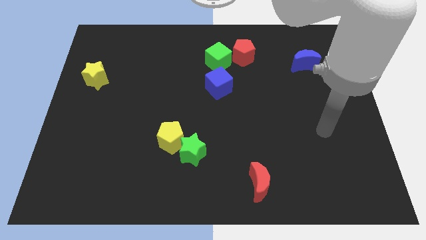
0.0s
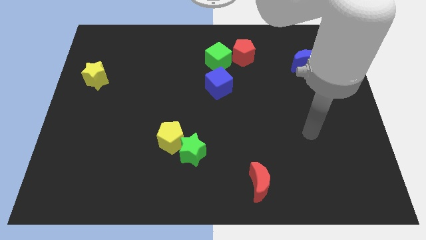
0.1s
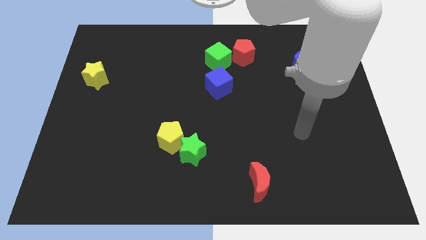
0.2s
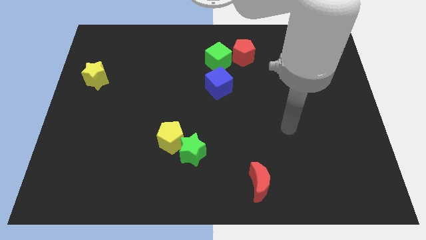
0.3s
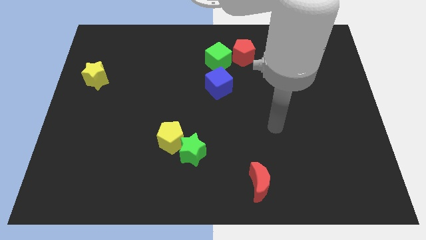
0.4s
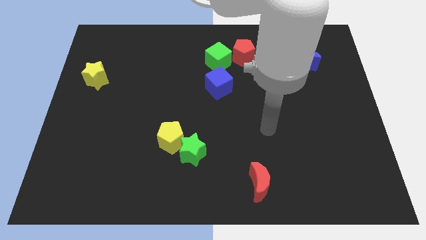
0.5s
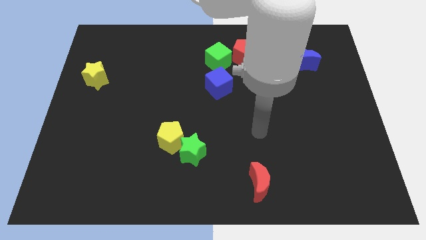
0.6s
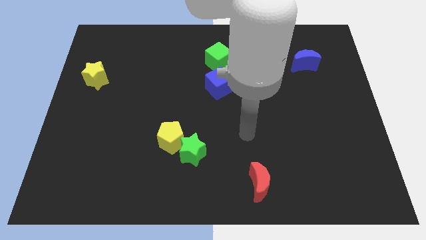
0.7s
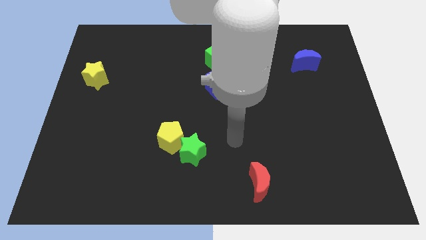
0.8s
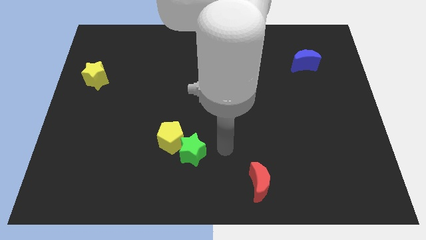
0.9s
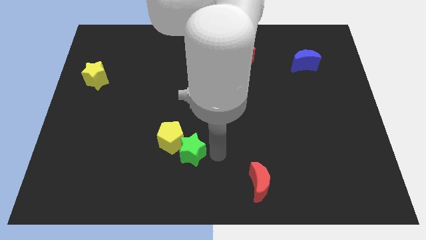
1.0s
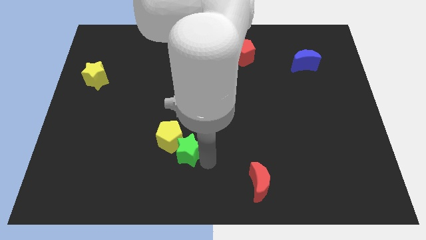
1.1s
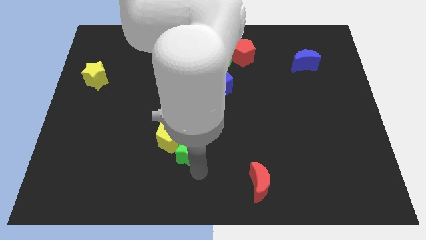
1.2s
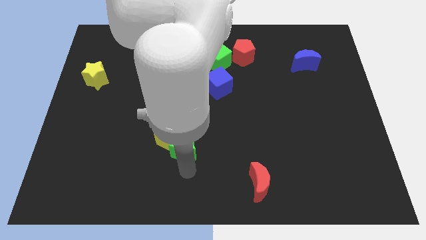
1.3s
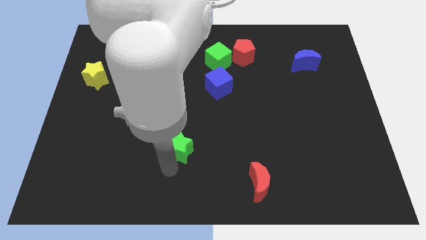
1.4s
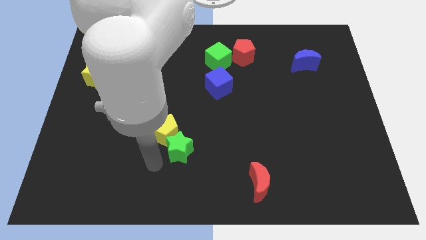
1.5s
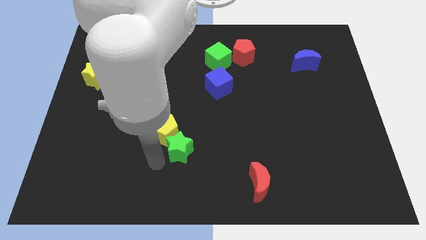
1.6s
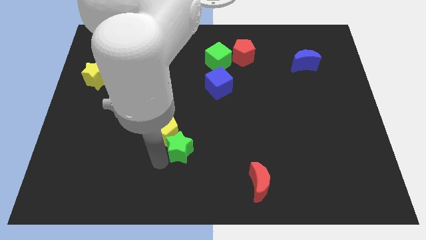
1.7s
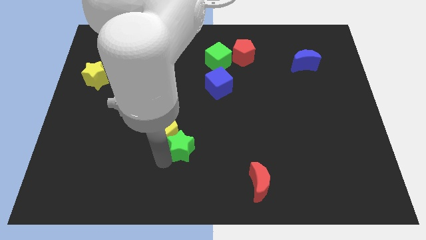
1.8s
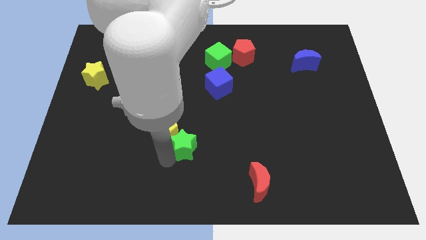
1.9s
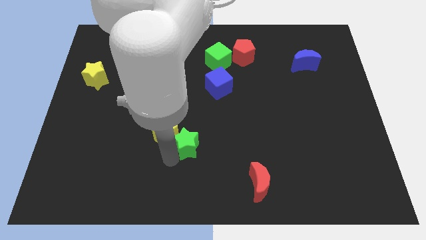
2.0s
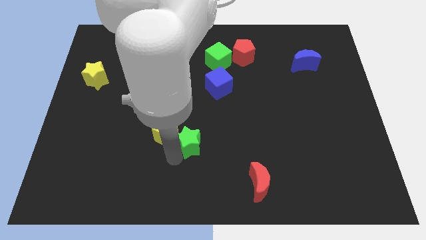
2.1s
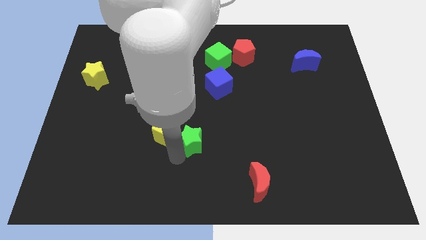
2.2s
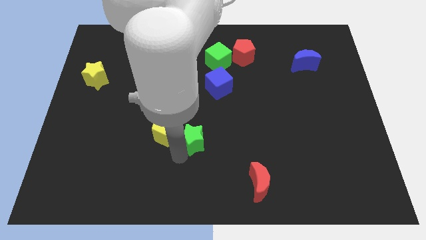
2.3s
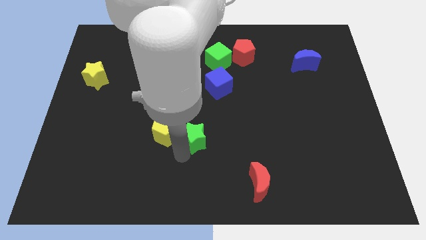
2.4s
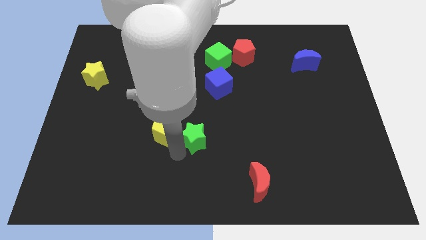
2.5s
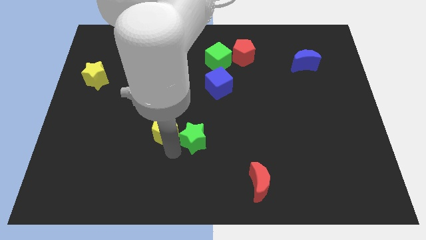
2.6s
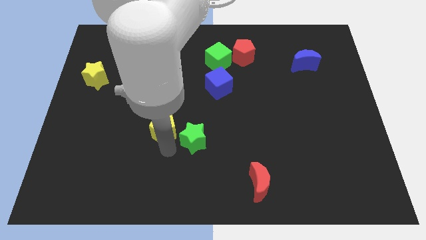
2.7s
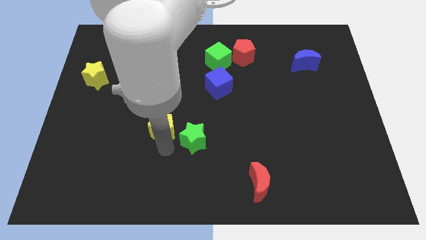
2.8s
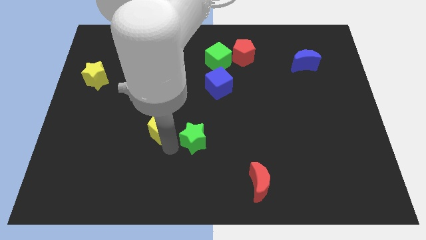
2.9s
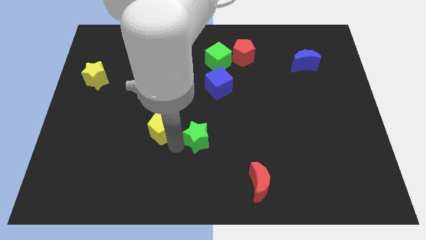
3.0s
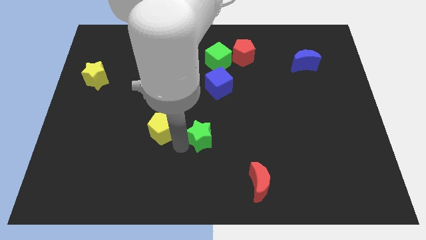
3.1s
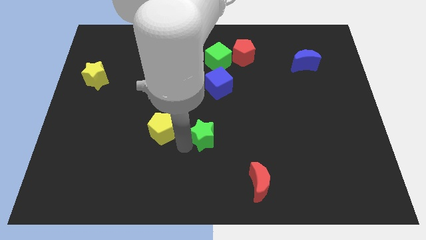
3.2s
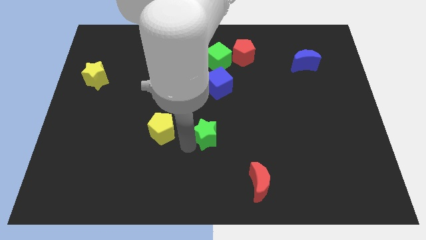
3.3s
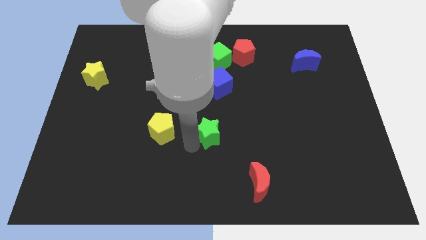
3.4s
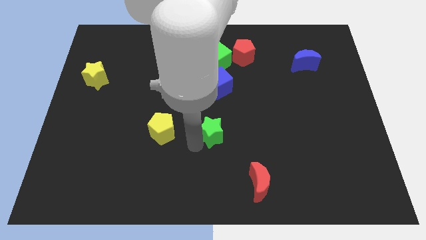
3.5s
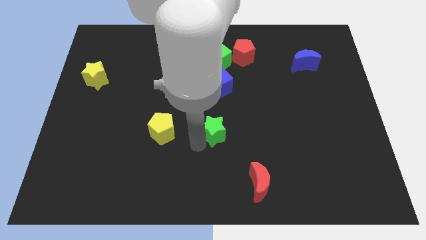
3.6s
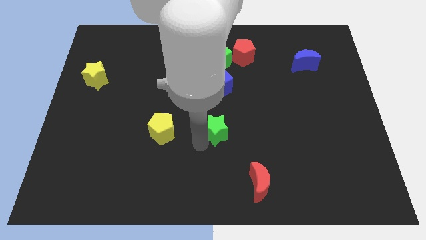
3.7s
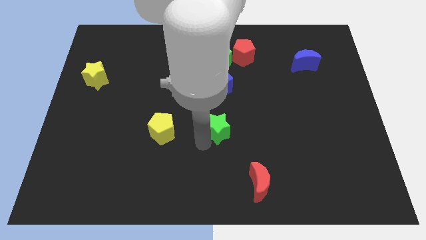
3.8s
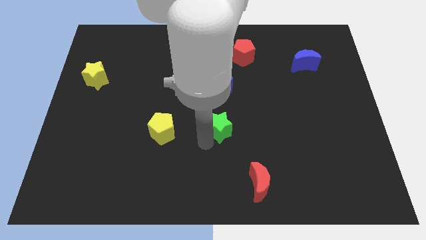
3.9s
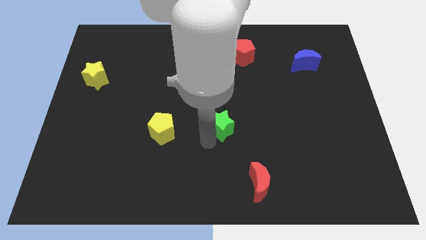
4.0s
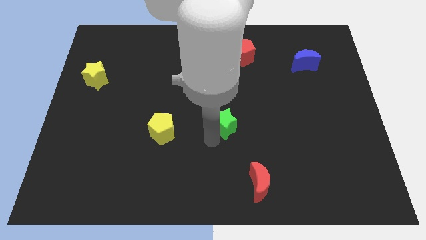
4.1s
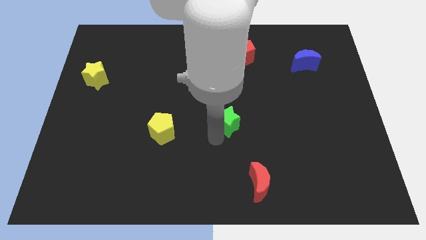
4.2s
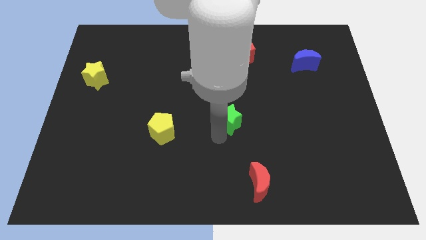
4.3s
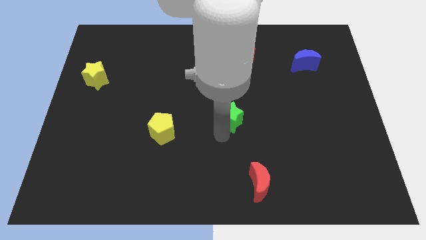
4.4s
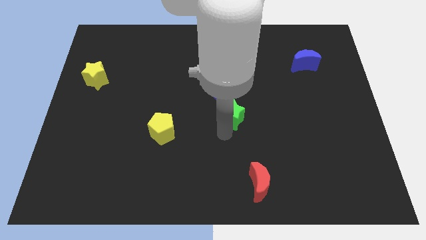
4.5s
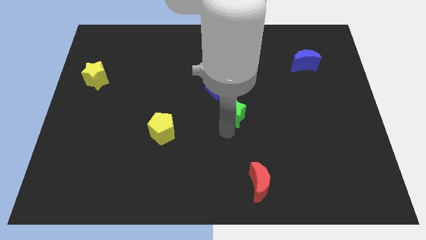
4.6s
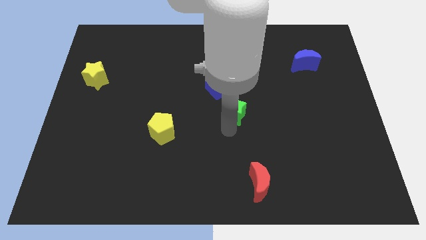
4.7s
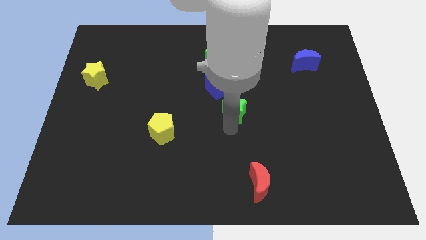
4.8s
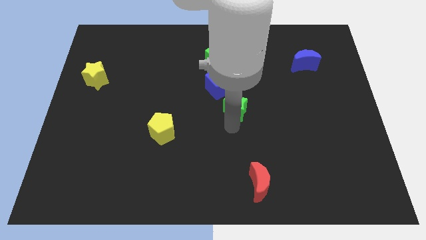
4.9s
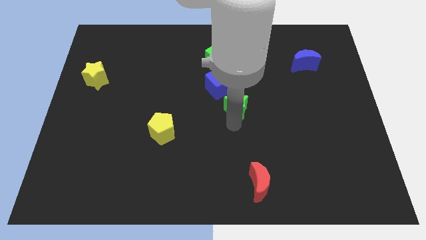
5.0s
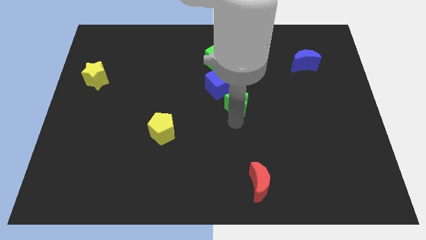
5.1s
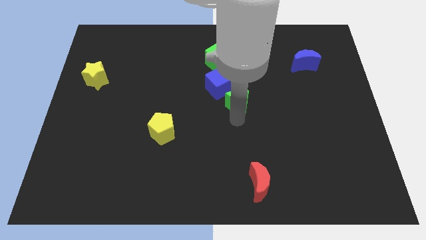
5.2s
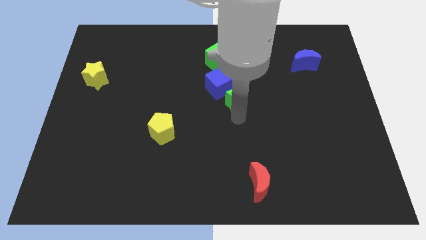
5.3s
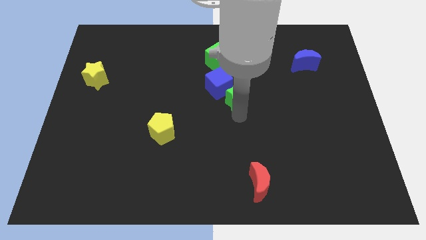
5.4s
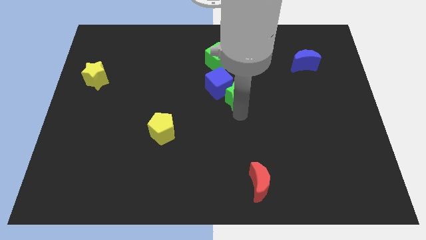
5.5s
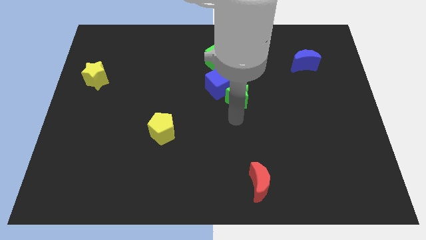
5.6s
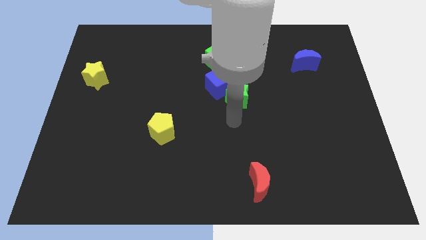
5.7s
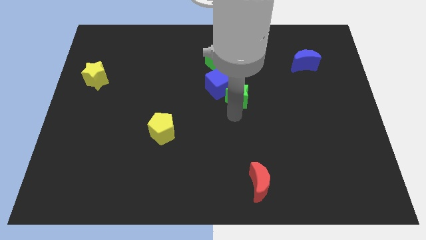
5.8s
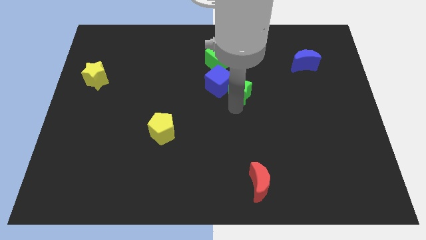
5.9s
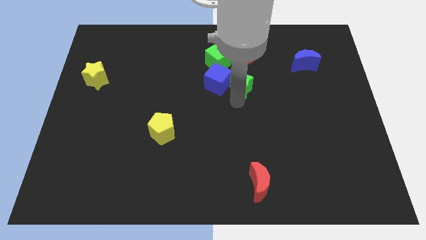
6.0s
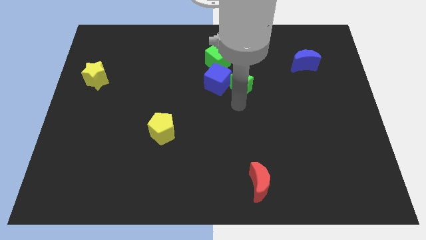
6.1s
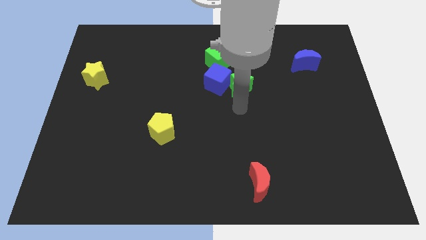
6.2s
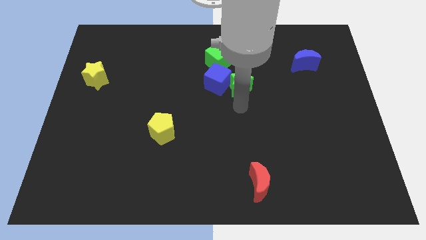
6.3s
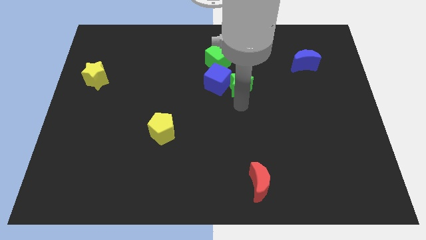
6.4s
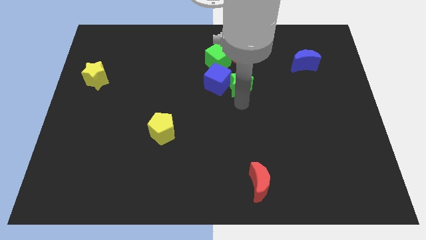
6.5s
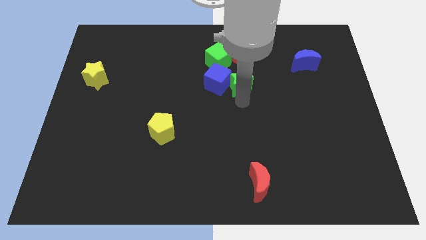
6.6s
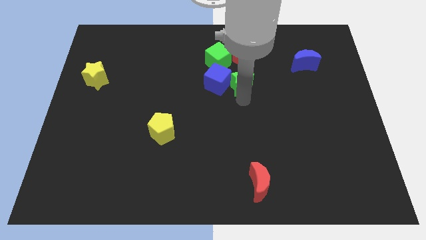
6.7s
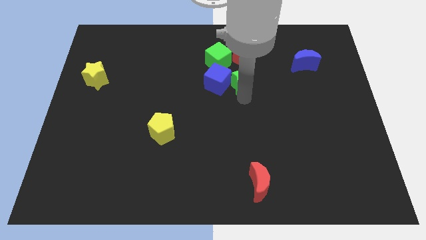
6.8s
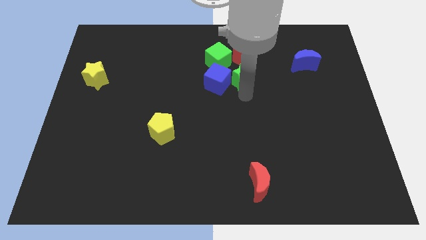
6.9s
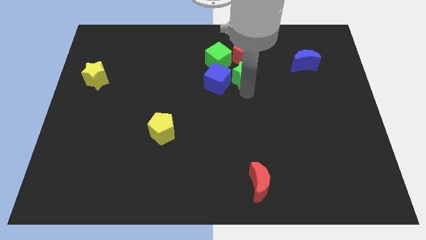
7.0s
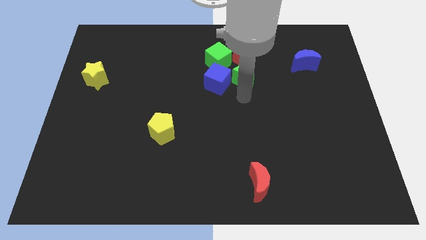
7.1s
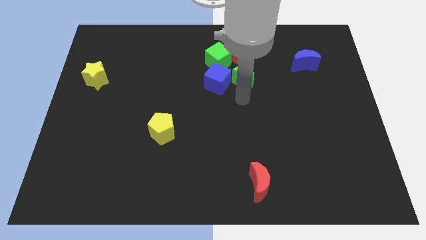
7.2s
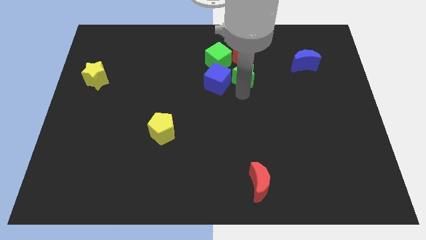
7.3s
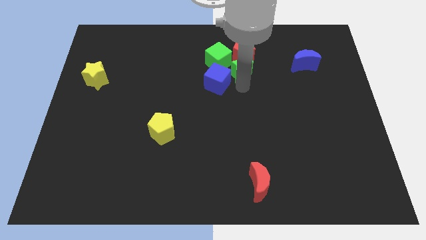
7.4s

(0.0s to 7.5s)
slide the green star close to the red pentagon
